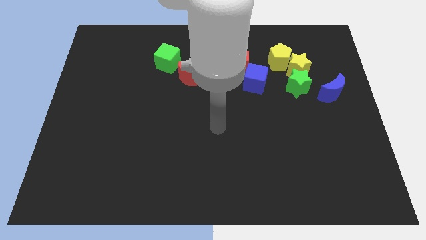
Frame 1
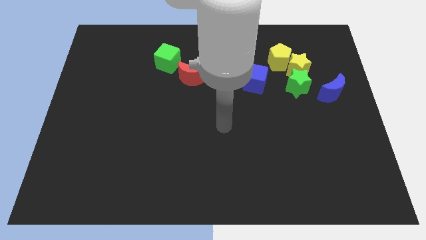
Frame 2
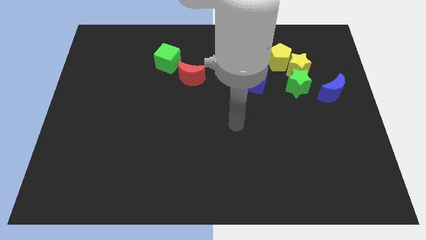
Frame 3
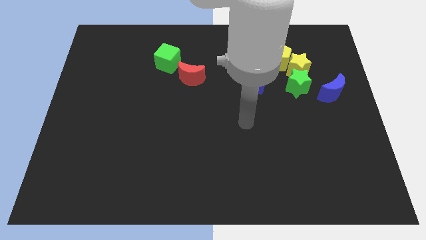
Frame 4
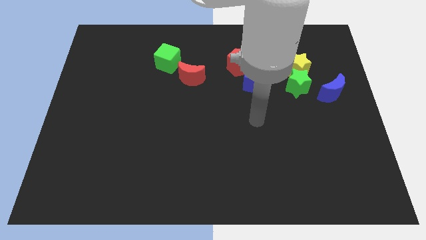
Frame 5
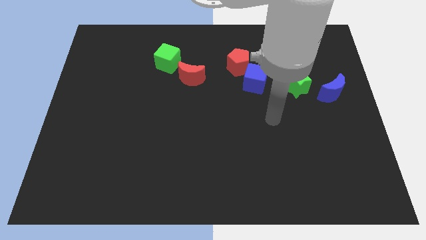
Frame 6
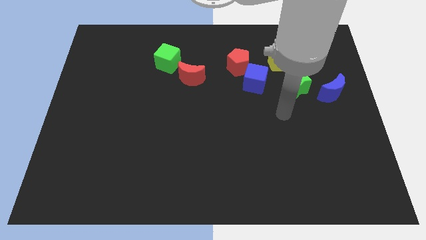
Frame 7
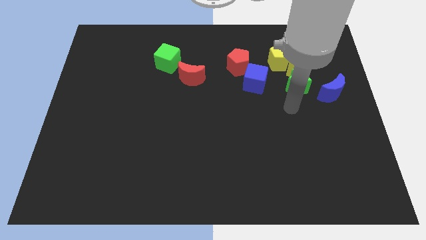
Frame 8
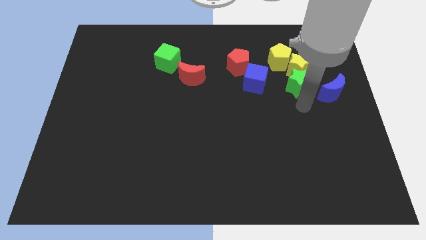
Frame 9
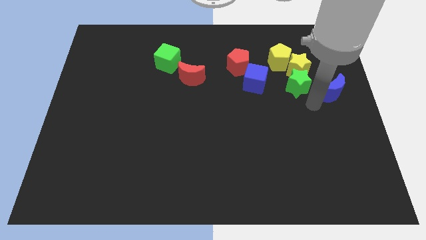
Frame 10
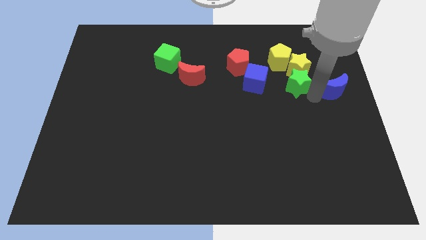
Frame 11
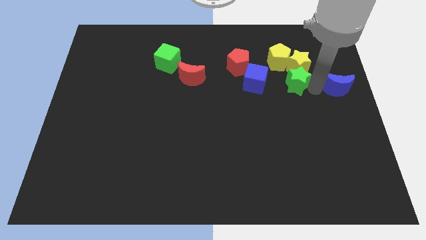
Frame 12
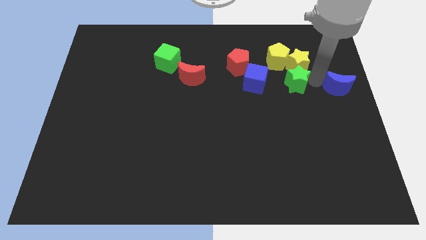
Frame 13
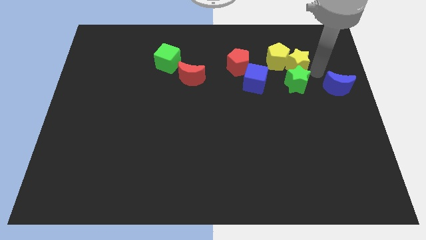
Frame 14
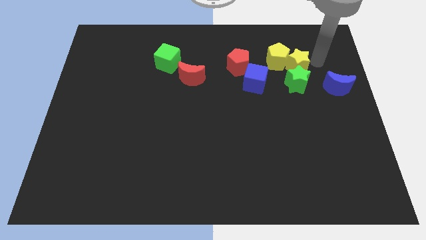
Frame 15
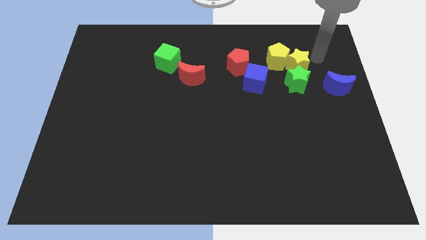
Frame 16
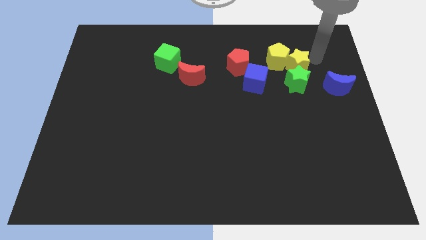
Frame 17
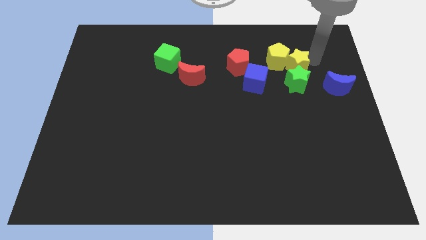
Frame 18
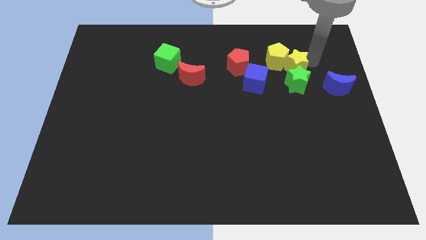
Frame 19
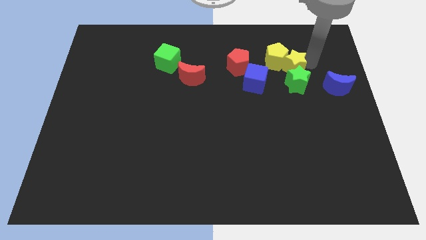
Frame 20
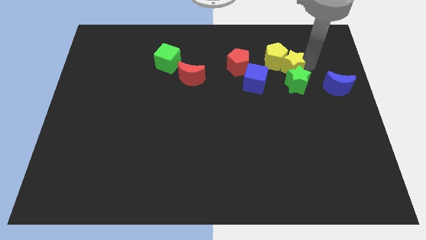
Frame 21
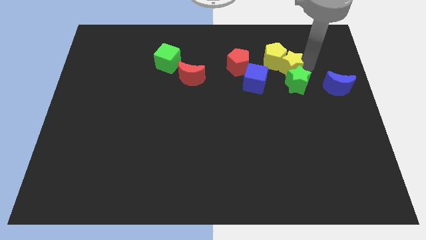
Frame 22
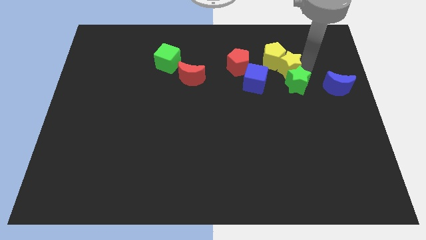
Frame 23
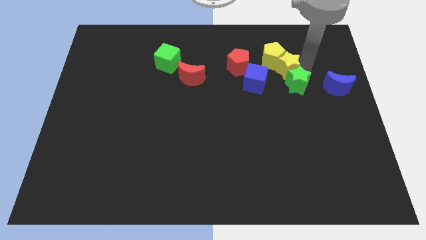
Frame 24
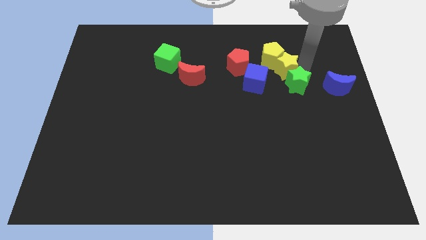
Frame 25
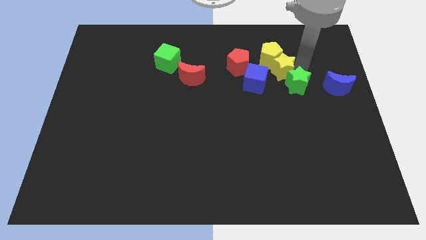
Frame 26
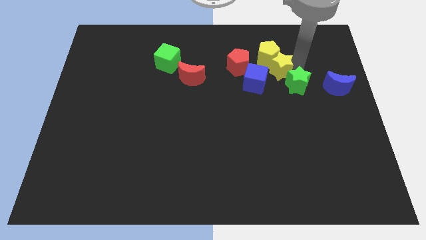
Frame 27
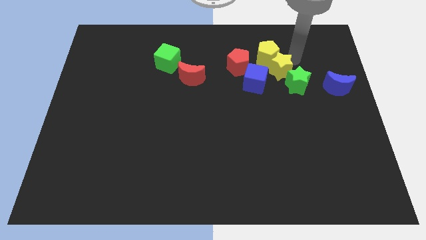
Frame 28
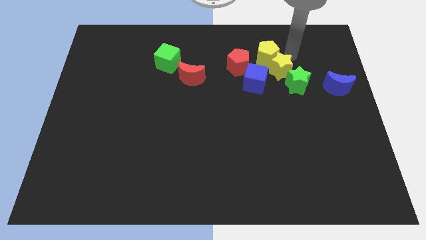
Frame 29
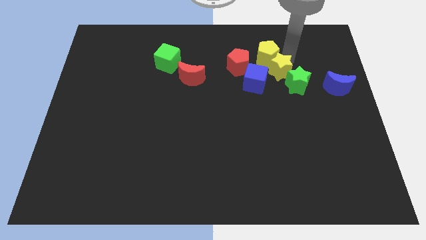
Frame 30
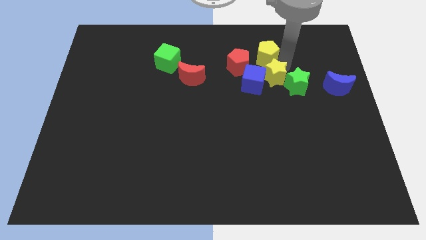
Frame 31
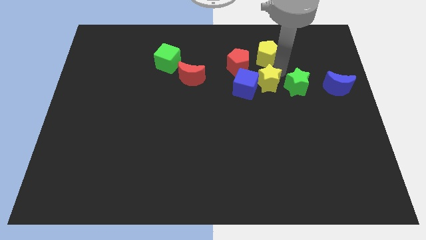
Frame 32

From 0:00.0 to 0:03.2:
slide the yellow star down and to the left diagonally a little

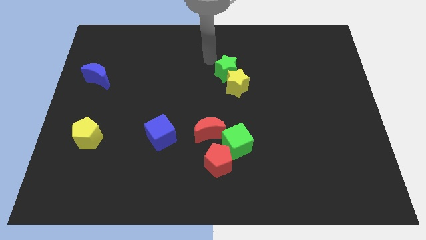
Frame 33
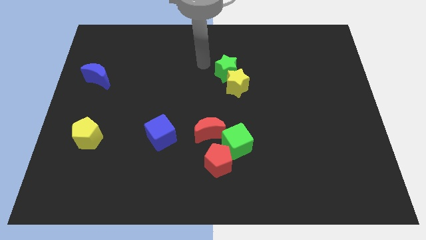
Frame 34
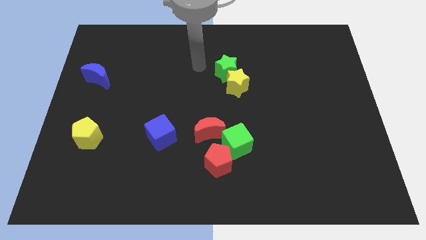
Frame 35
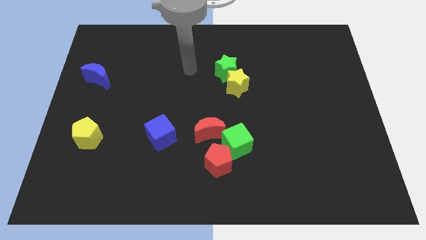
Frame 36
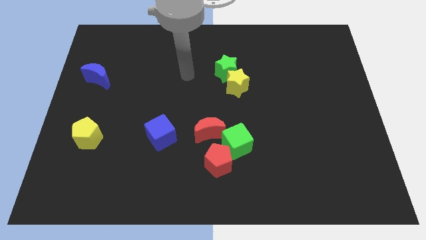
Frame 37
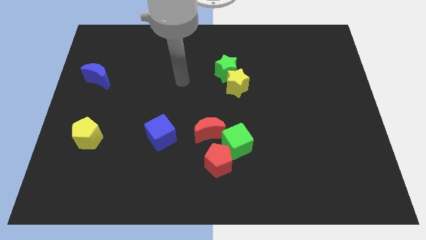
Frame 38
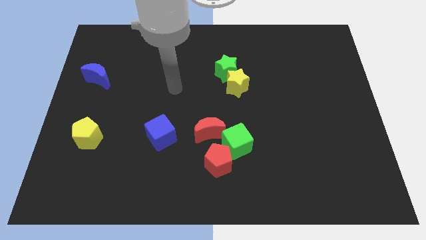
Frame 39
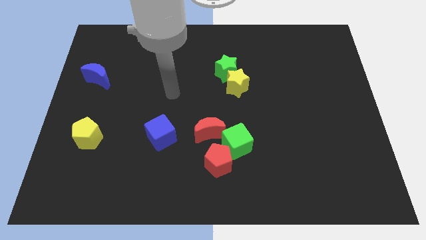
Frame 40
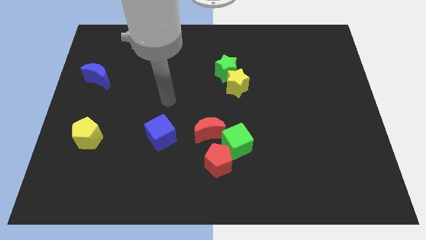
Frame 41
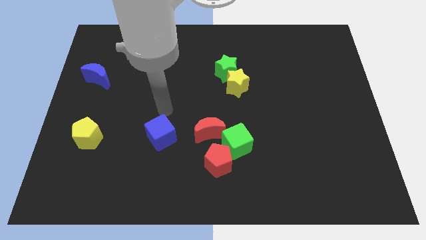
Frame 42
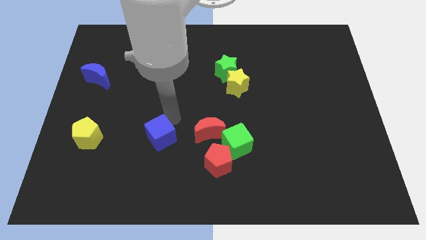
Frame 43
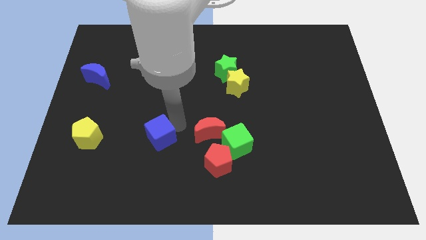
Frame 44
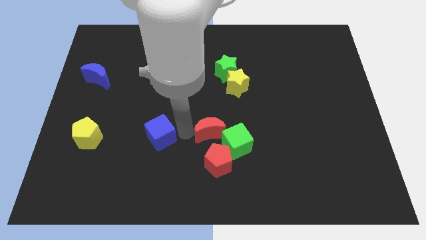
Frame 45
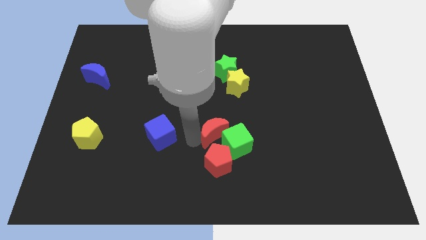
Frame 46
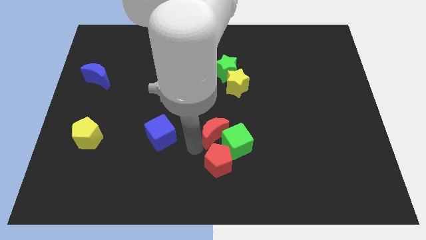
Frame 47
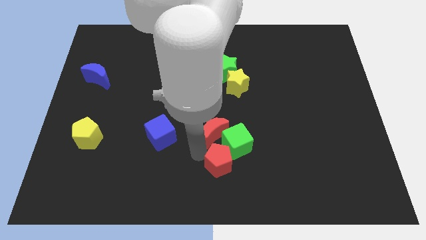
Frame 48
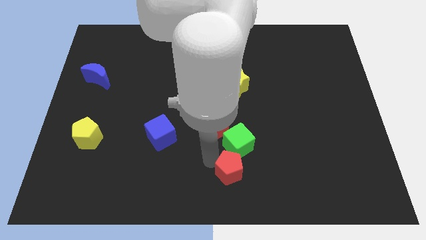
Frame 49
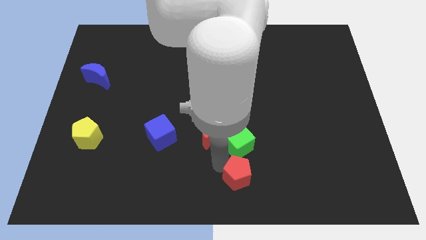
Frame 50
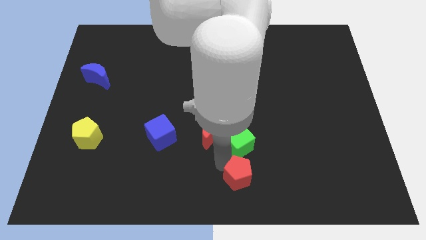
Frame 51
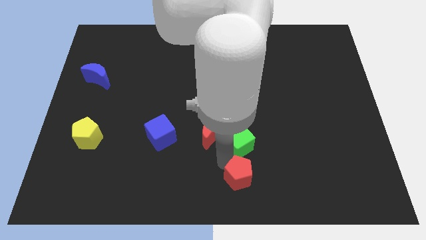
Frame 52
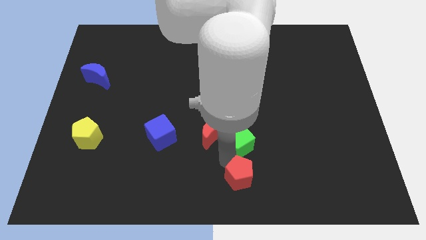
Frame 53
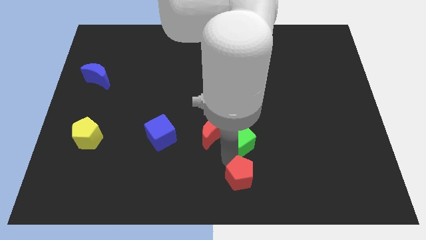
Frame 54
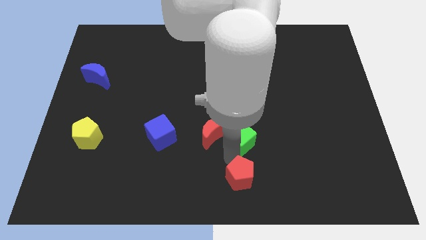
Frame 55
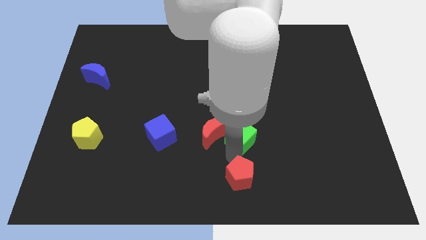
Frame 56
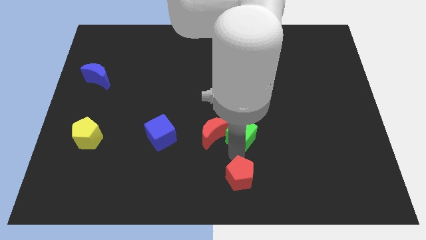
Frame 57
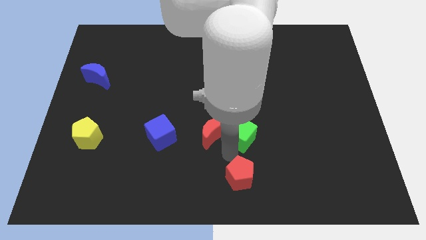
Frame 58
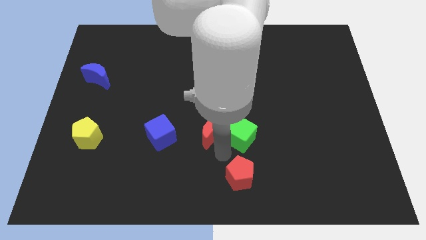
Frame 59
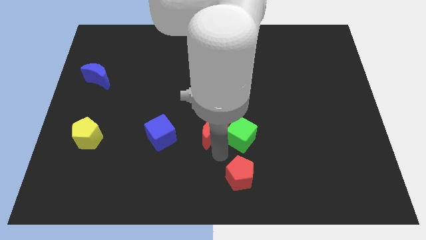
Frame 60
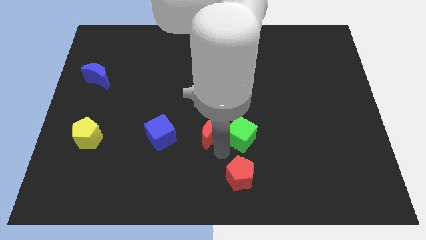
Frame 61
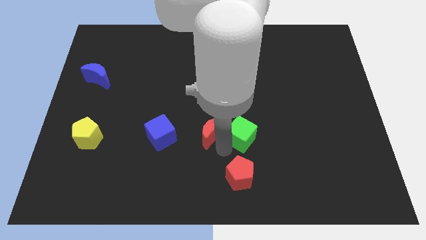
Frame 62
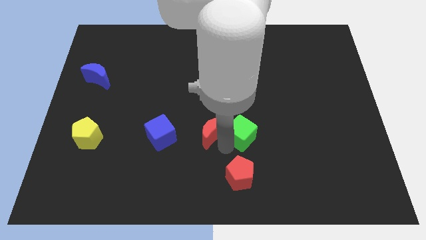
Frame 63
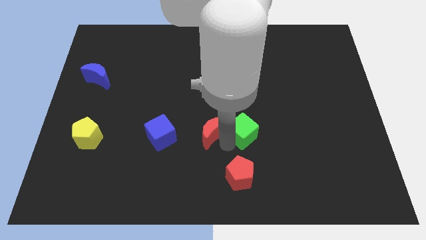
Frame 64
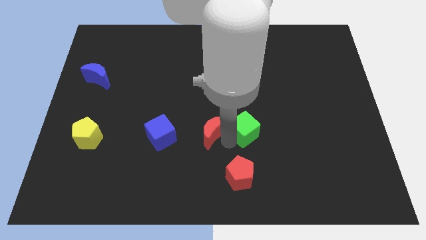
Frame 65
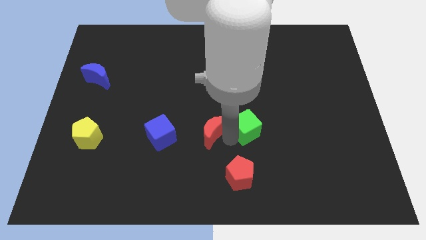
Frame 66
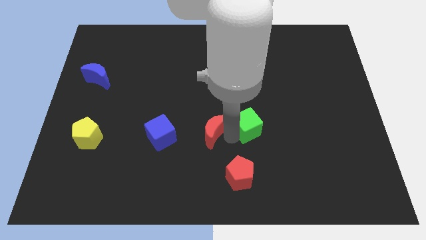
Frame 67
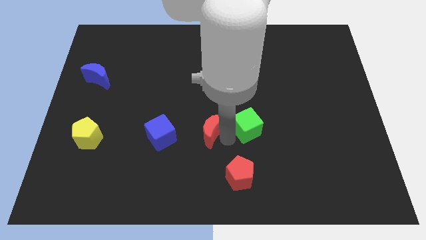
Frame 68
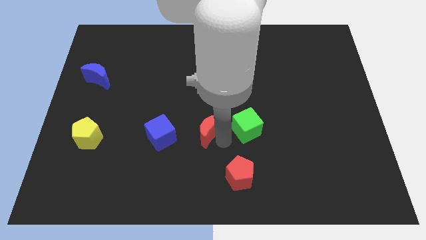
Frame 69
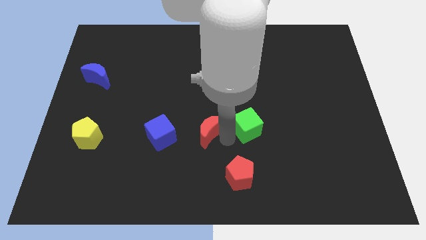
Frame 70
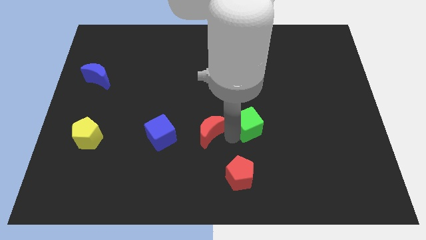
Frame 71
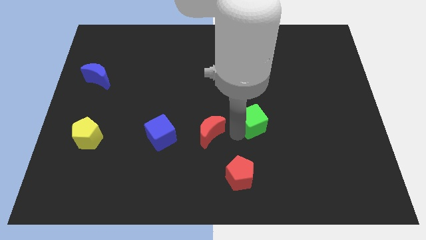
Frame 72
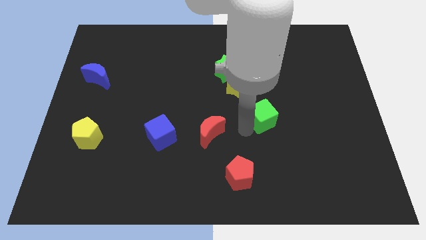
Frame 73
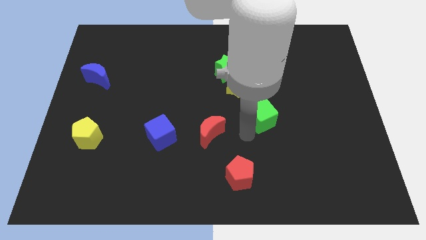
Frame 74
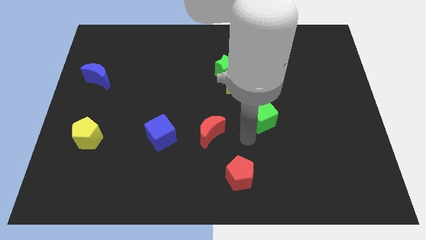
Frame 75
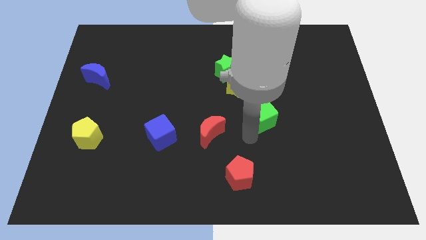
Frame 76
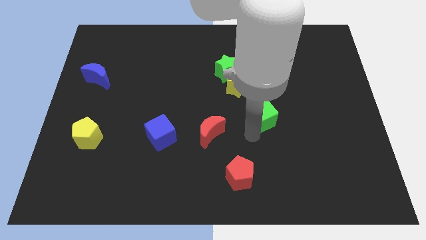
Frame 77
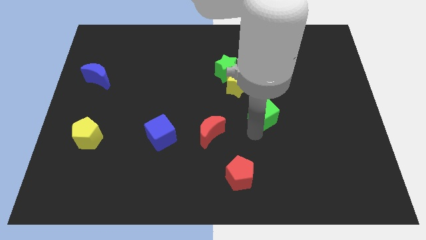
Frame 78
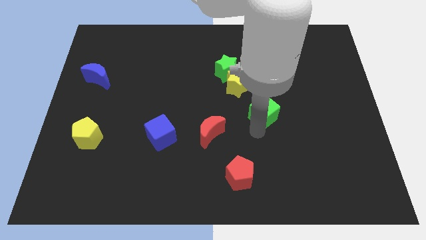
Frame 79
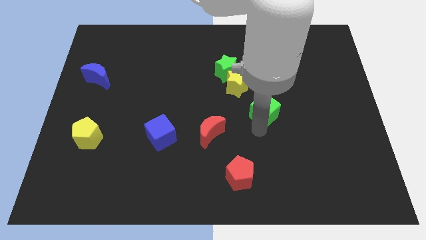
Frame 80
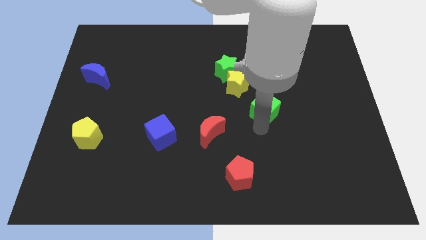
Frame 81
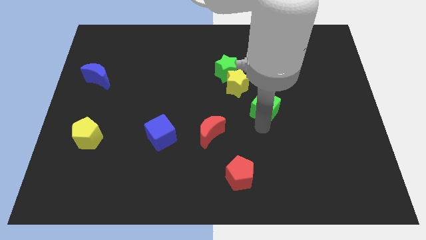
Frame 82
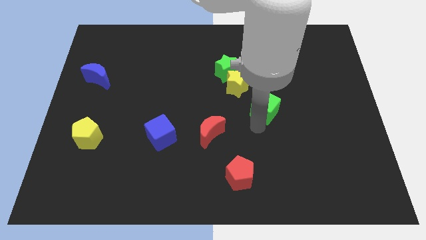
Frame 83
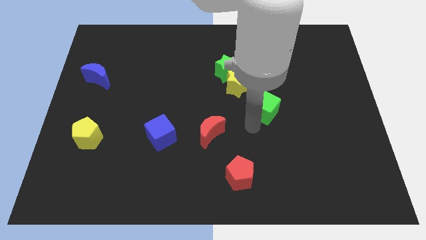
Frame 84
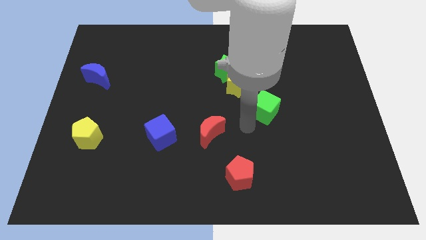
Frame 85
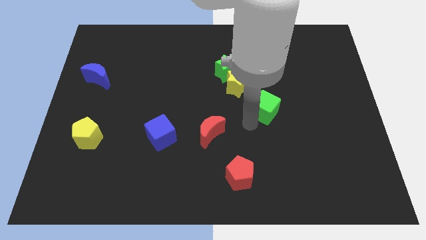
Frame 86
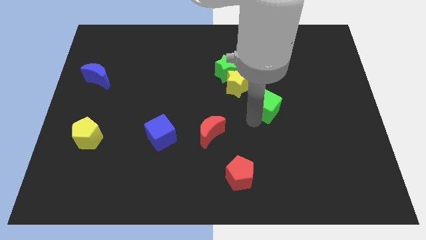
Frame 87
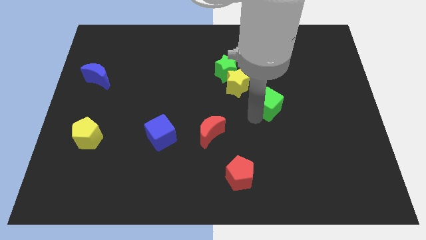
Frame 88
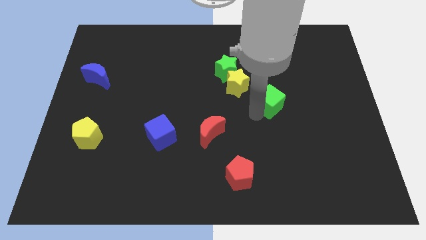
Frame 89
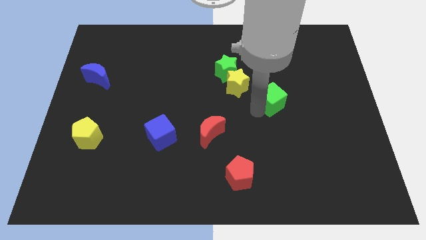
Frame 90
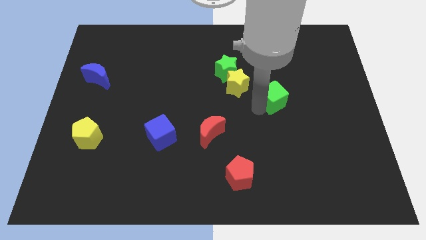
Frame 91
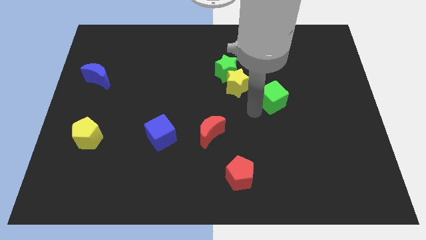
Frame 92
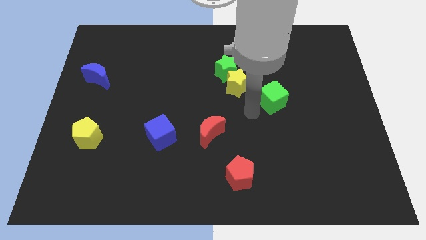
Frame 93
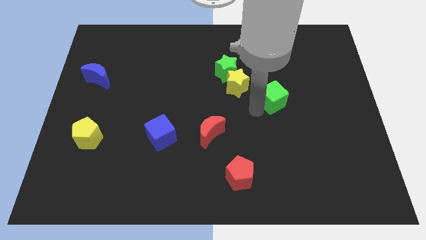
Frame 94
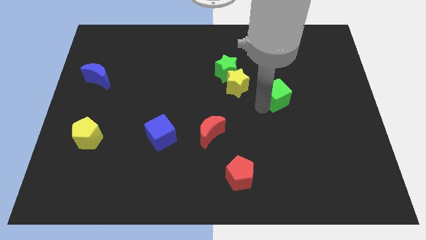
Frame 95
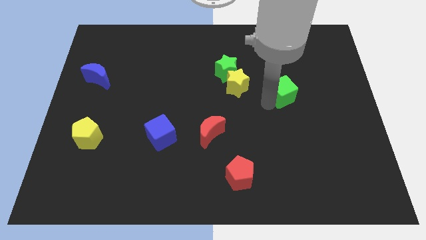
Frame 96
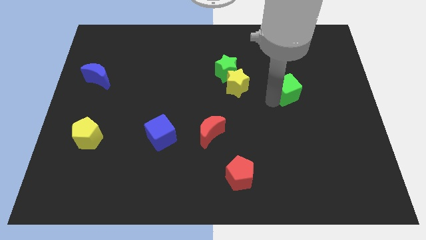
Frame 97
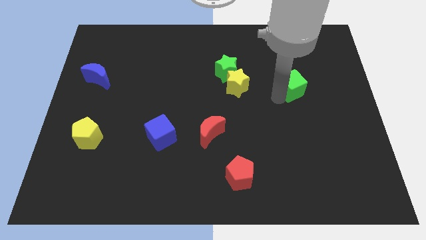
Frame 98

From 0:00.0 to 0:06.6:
move the green cube up and then to the right
